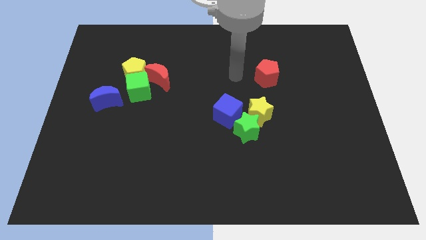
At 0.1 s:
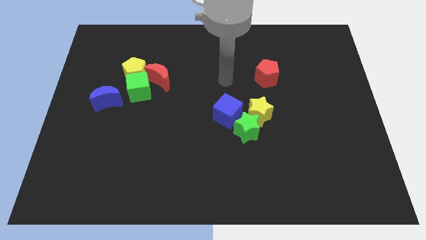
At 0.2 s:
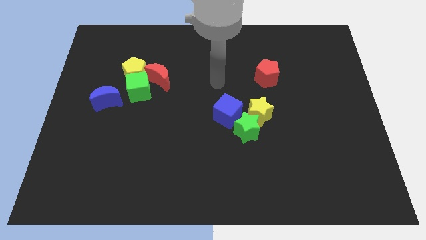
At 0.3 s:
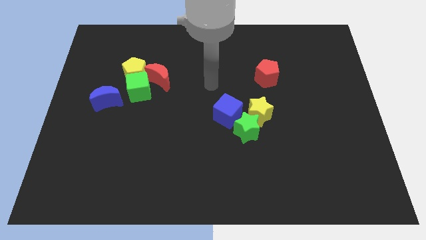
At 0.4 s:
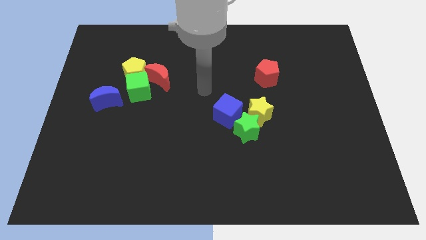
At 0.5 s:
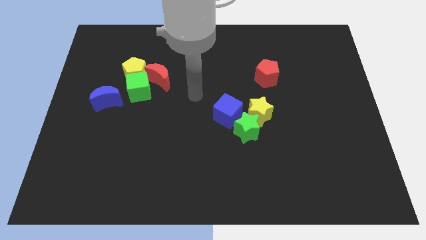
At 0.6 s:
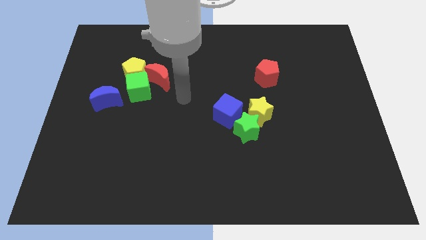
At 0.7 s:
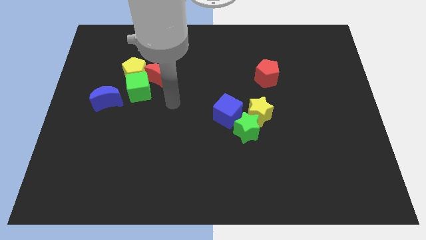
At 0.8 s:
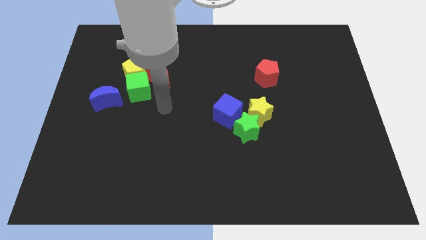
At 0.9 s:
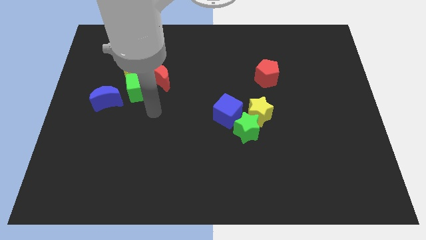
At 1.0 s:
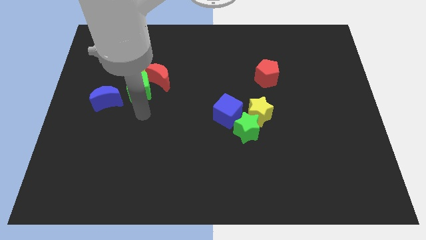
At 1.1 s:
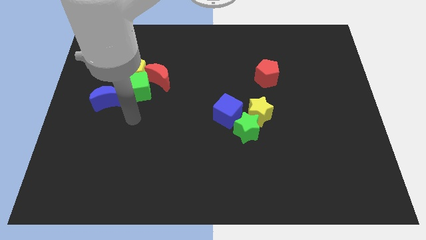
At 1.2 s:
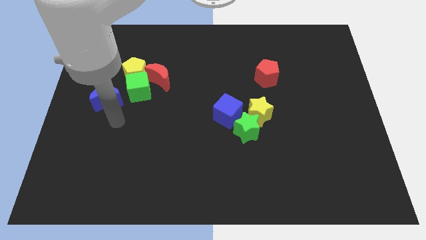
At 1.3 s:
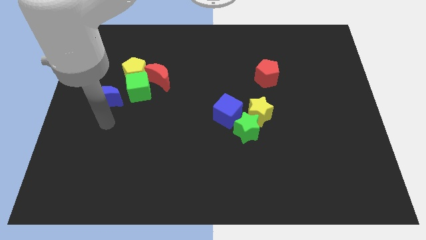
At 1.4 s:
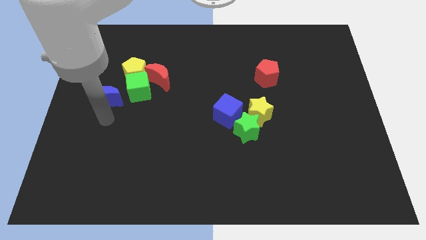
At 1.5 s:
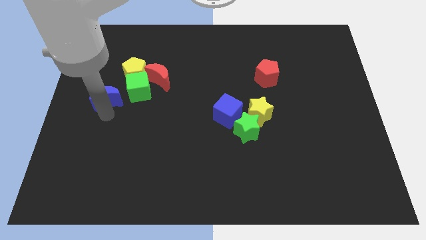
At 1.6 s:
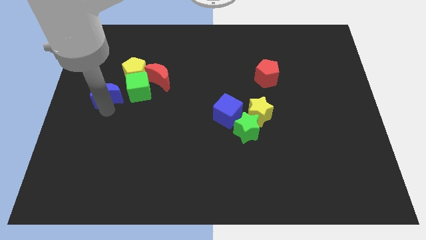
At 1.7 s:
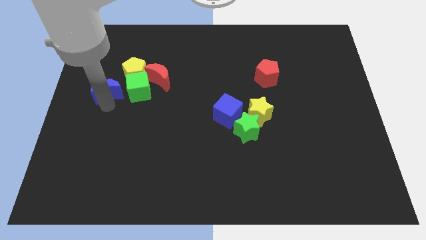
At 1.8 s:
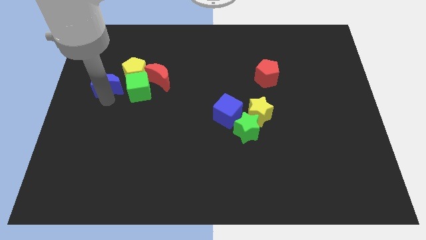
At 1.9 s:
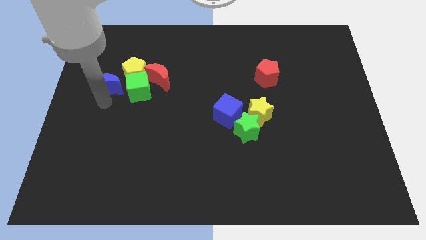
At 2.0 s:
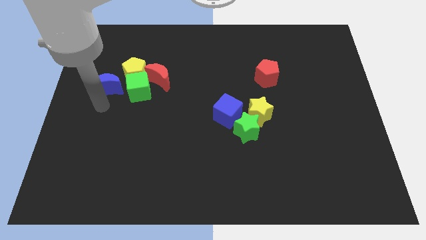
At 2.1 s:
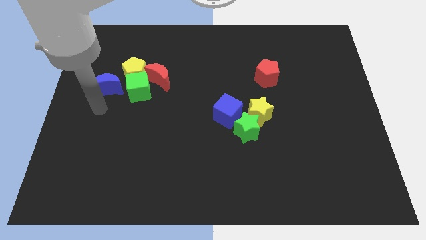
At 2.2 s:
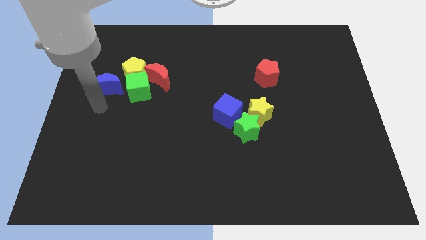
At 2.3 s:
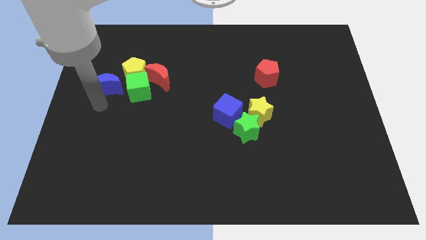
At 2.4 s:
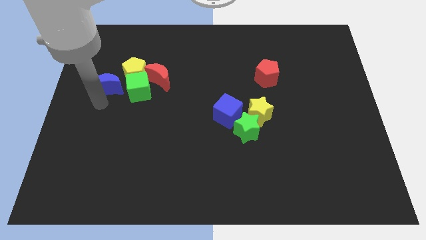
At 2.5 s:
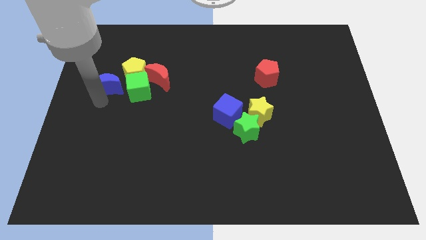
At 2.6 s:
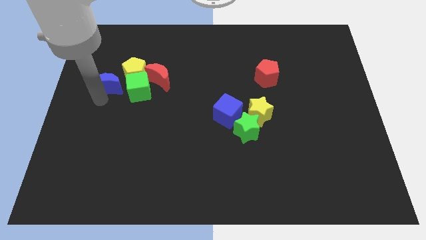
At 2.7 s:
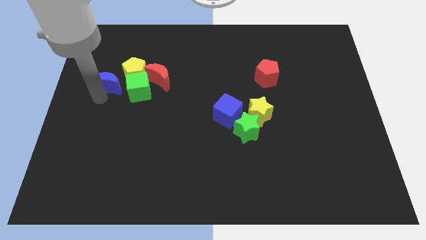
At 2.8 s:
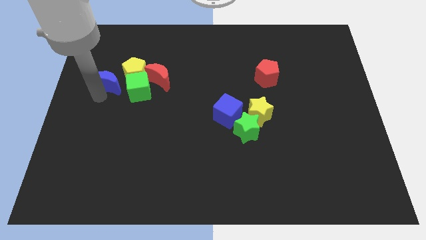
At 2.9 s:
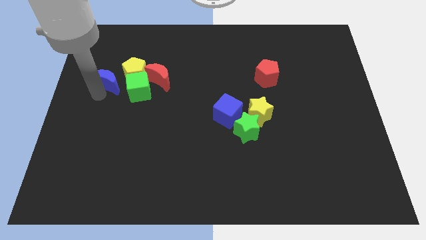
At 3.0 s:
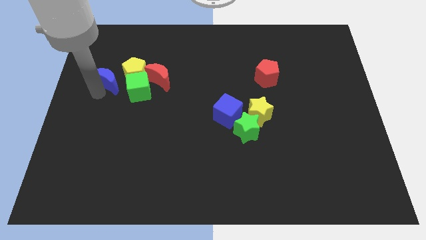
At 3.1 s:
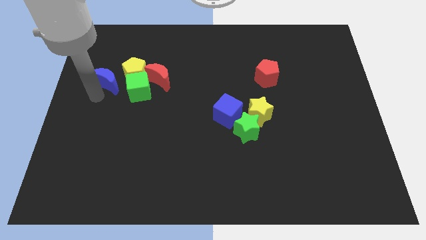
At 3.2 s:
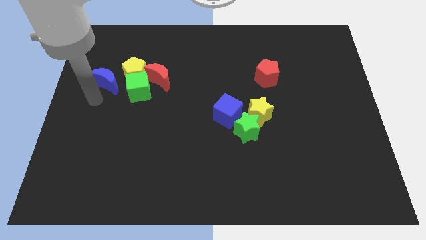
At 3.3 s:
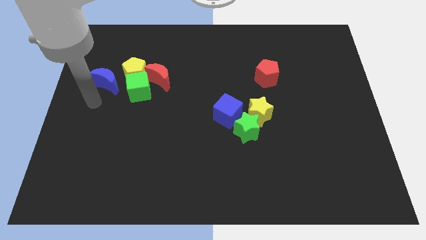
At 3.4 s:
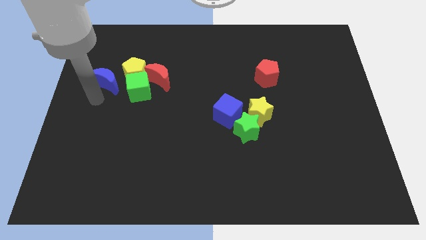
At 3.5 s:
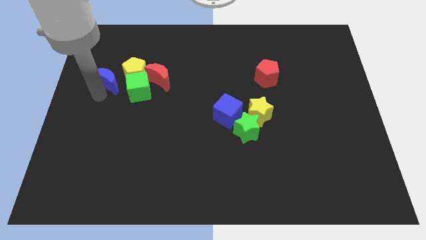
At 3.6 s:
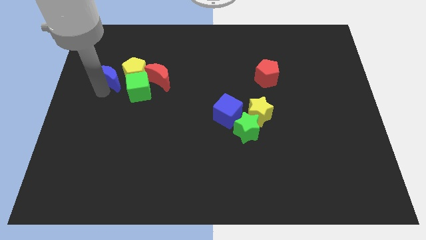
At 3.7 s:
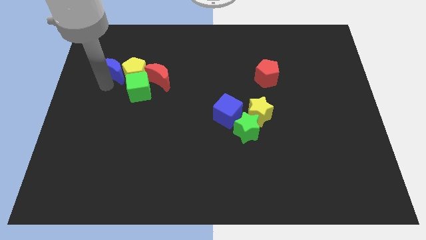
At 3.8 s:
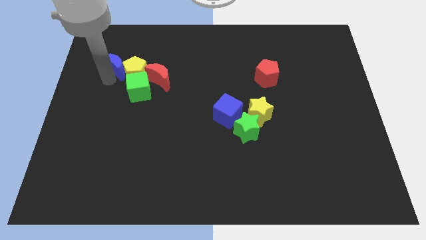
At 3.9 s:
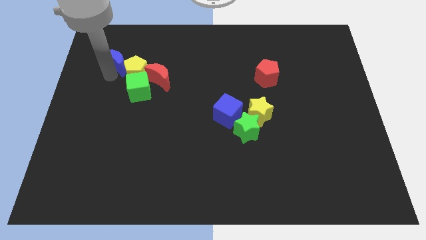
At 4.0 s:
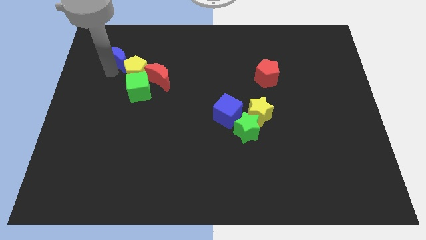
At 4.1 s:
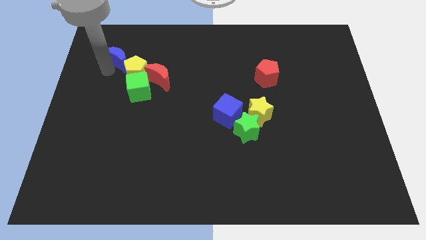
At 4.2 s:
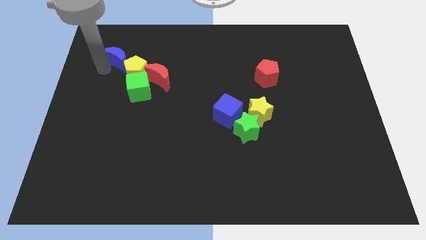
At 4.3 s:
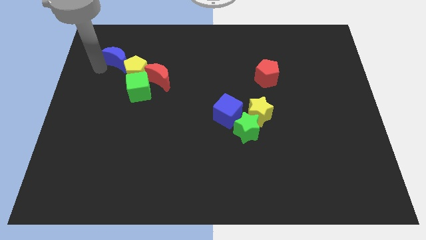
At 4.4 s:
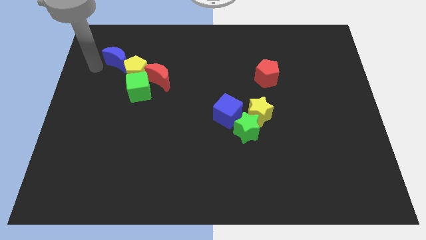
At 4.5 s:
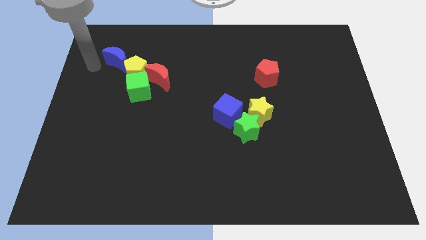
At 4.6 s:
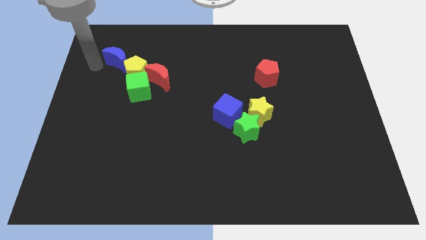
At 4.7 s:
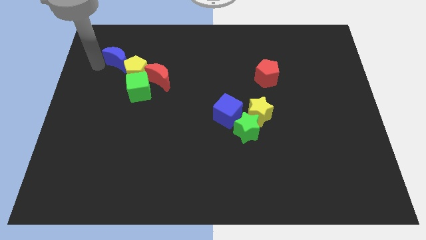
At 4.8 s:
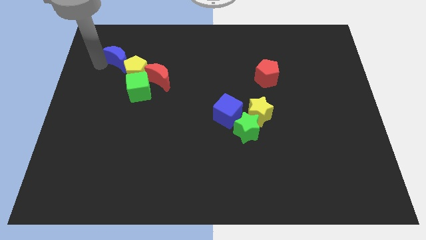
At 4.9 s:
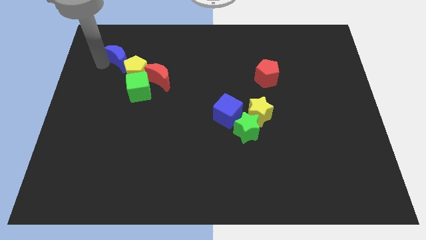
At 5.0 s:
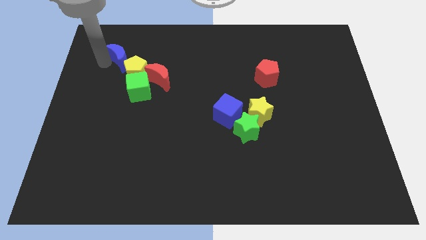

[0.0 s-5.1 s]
move the blue moon a little bit up and right diagonally

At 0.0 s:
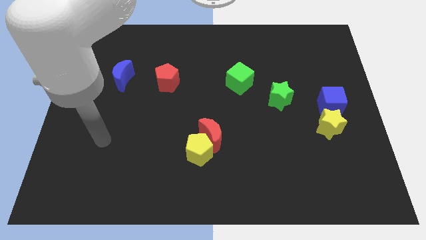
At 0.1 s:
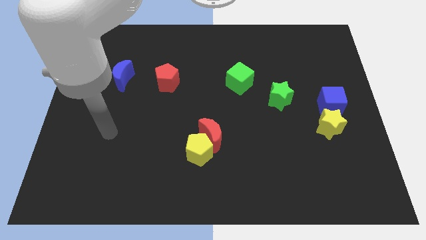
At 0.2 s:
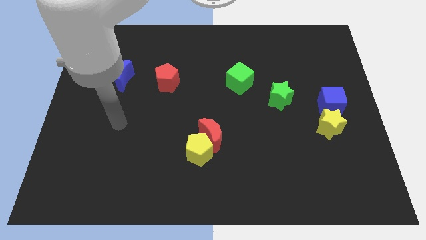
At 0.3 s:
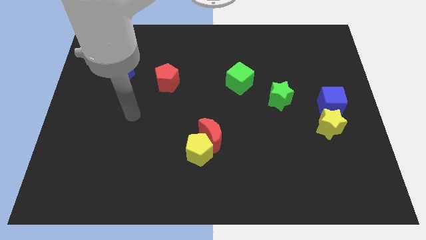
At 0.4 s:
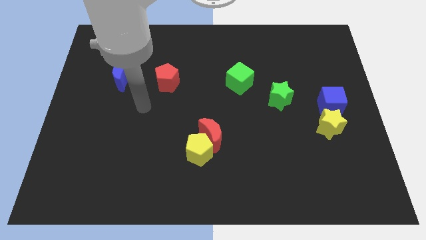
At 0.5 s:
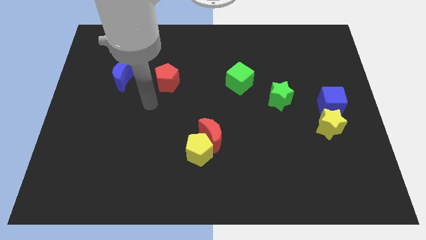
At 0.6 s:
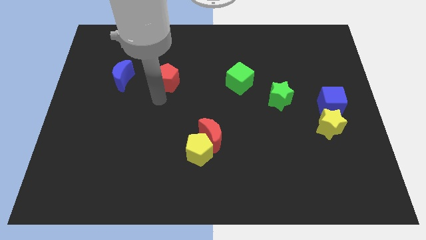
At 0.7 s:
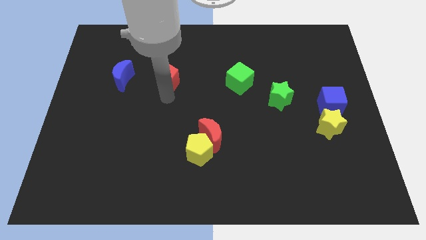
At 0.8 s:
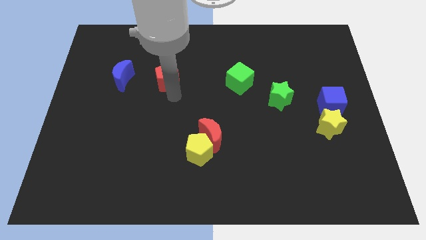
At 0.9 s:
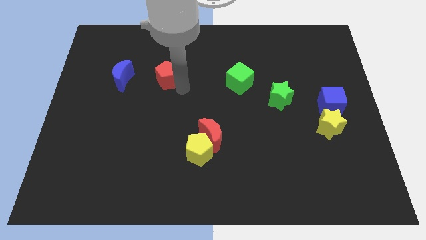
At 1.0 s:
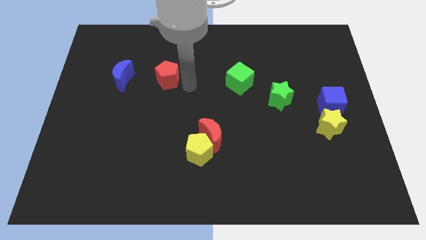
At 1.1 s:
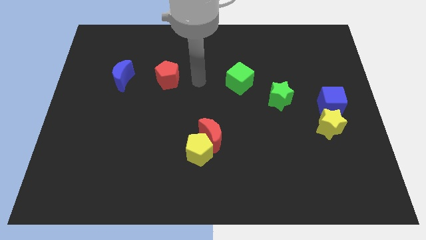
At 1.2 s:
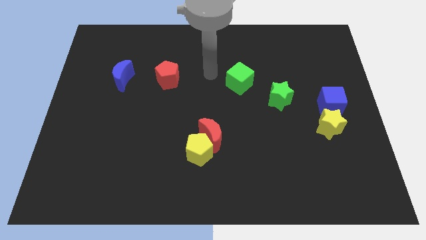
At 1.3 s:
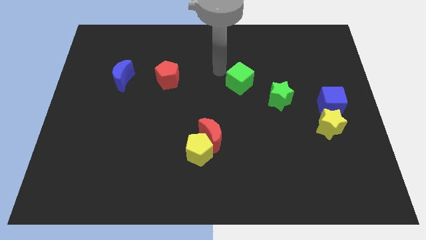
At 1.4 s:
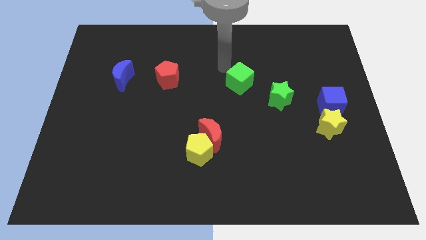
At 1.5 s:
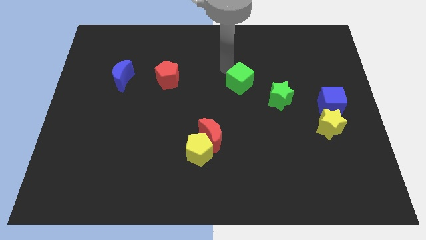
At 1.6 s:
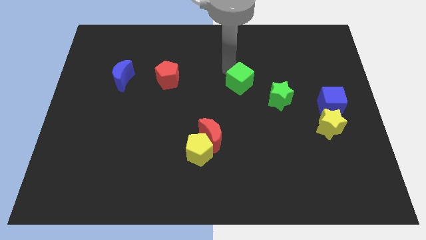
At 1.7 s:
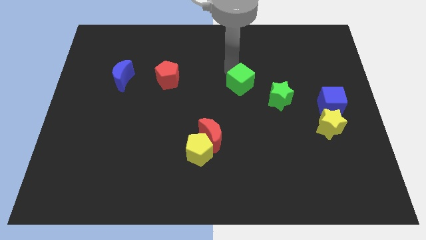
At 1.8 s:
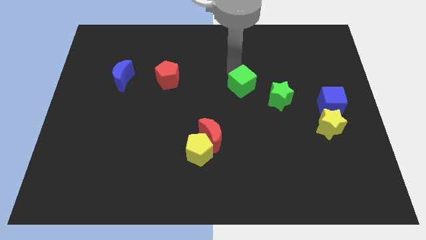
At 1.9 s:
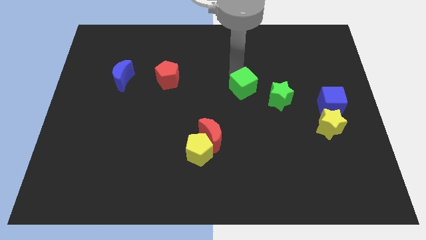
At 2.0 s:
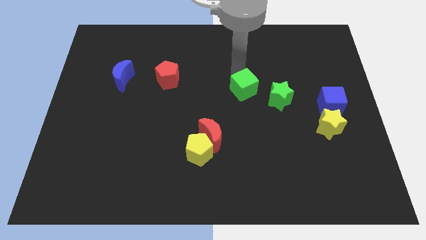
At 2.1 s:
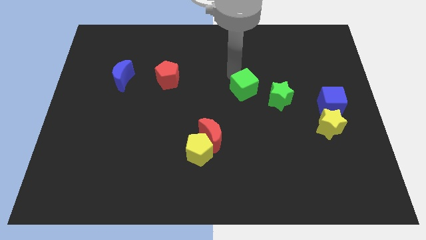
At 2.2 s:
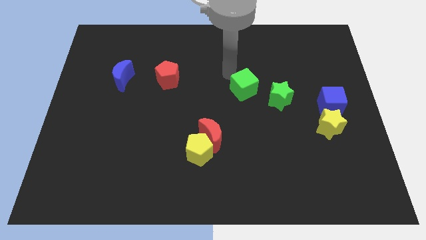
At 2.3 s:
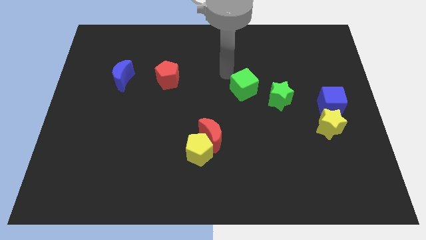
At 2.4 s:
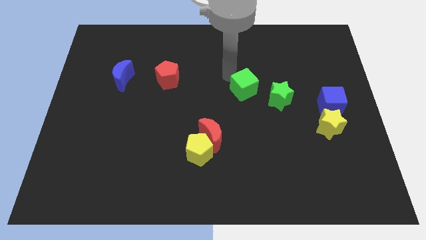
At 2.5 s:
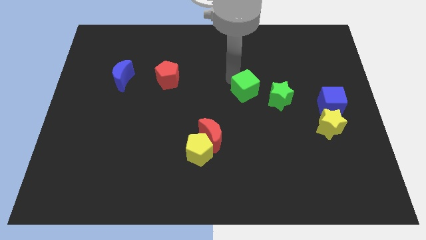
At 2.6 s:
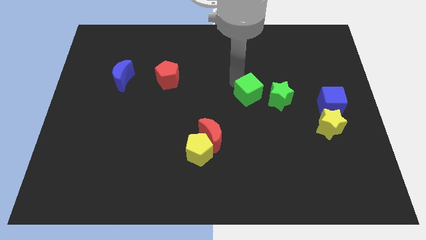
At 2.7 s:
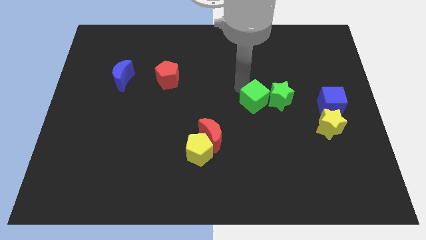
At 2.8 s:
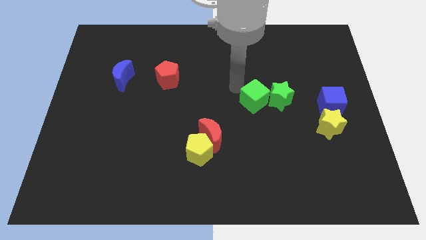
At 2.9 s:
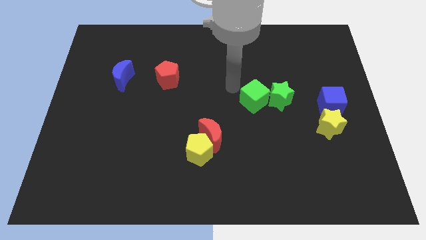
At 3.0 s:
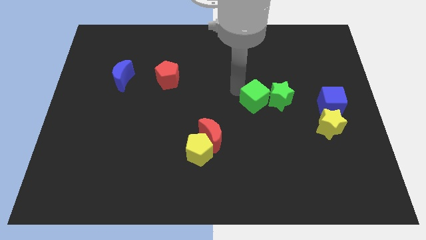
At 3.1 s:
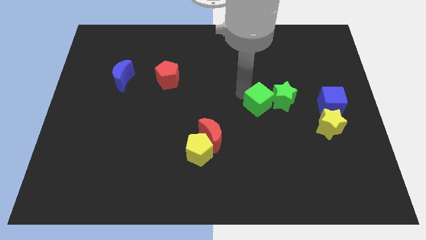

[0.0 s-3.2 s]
slide the green cube a bit diagonally downwards and to the right

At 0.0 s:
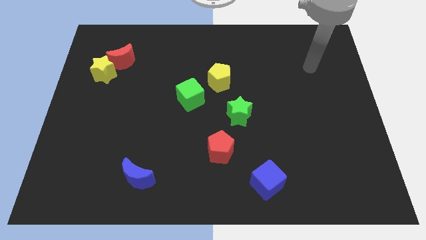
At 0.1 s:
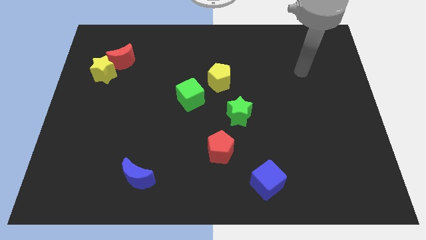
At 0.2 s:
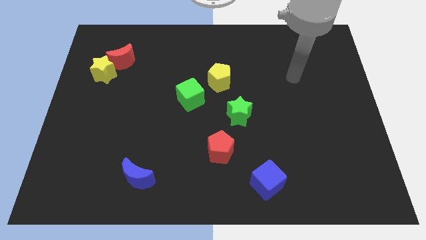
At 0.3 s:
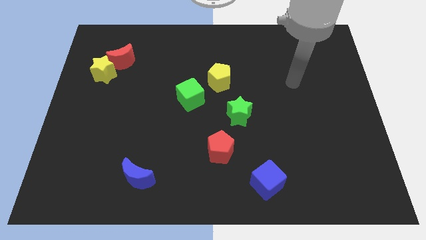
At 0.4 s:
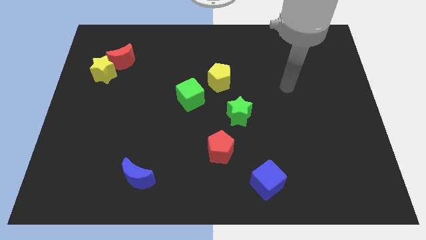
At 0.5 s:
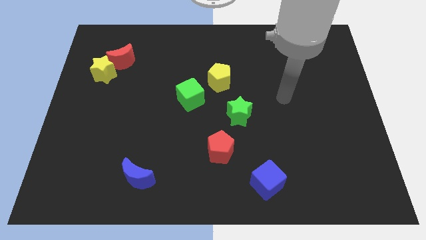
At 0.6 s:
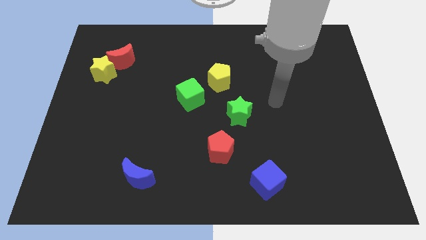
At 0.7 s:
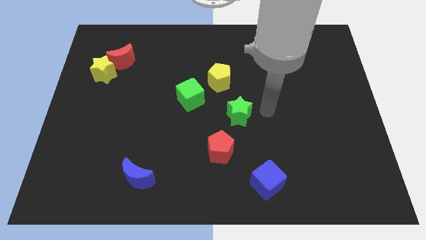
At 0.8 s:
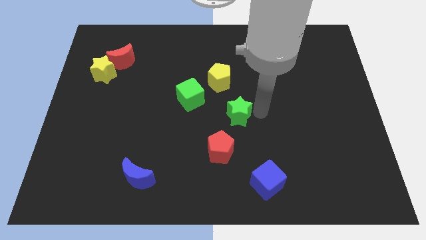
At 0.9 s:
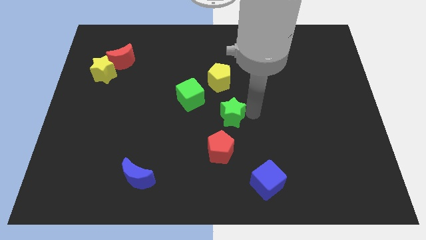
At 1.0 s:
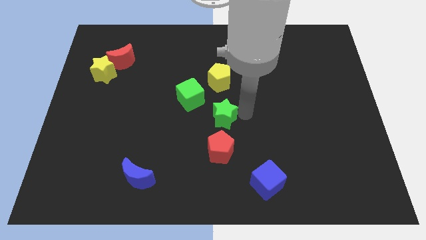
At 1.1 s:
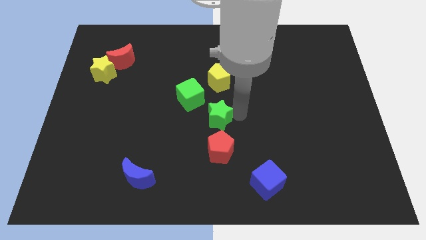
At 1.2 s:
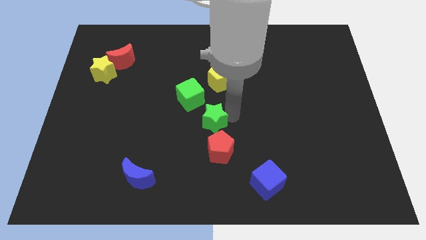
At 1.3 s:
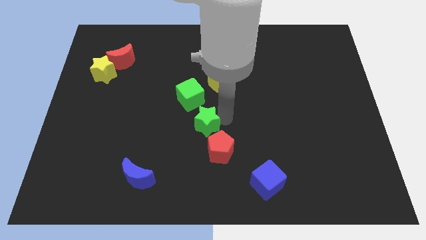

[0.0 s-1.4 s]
move the green star to the left a little bit
